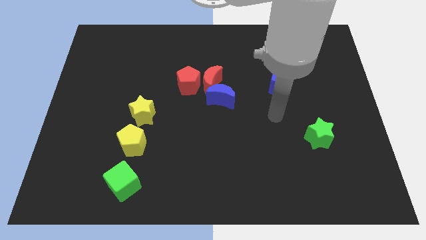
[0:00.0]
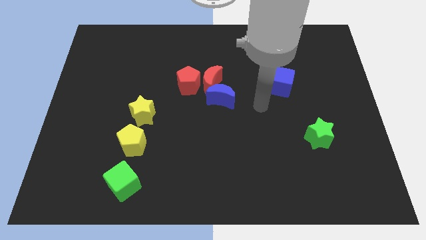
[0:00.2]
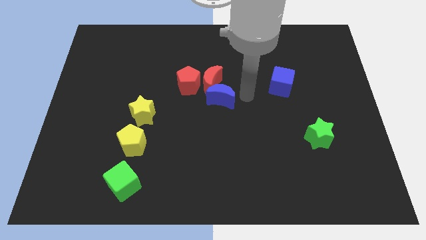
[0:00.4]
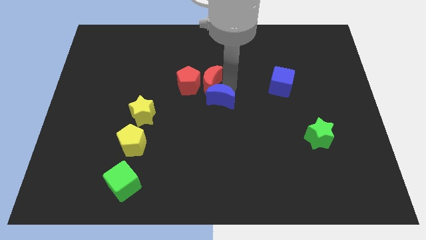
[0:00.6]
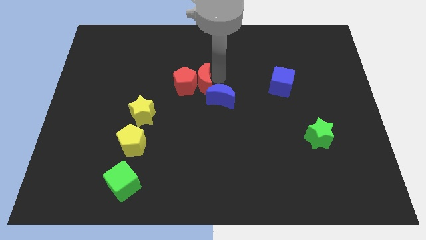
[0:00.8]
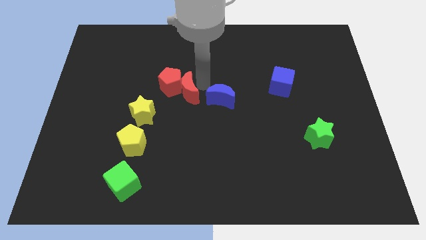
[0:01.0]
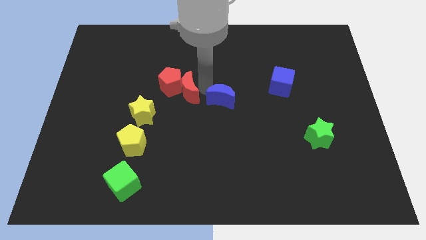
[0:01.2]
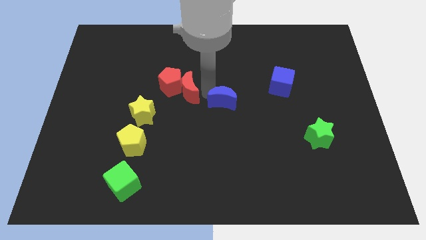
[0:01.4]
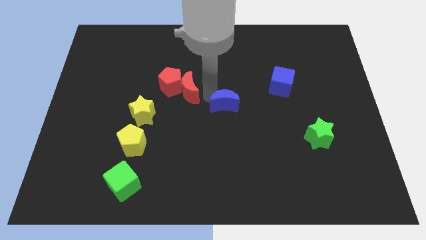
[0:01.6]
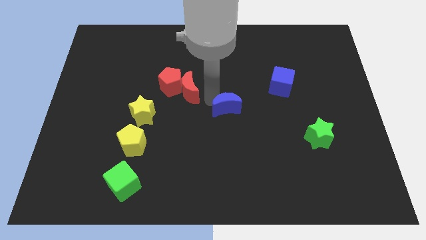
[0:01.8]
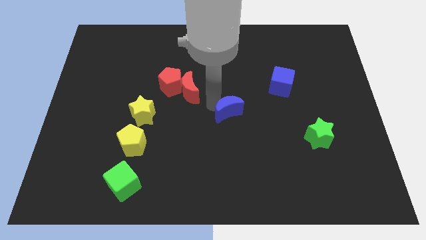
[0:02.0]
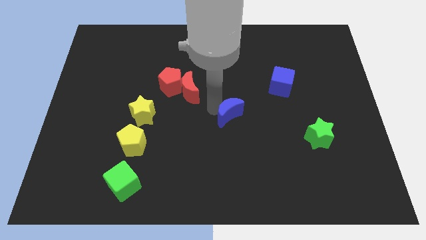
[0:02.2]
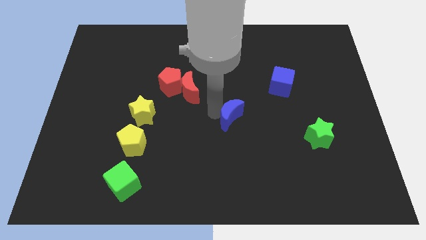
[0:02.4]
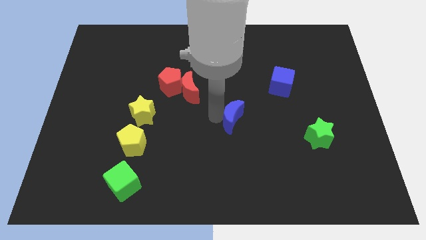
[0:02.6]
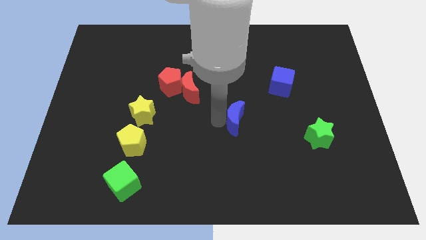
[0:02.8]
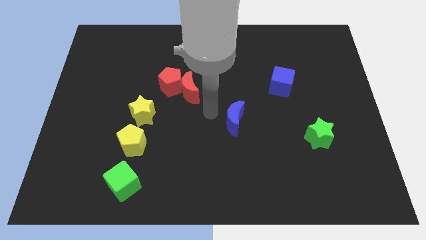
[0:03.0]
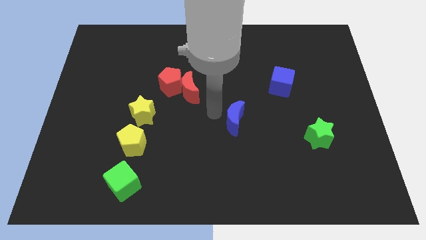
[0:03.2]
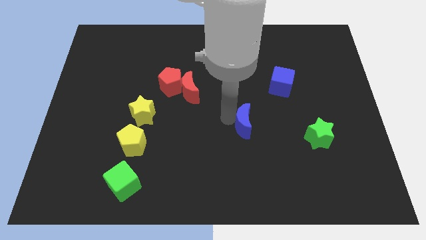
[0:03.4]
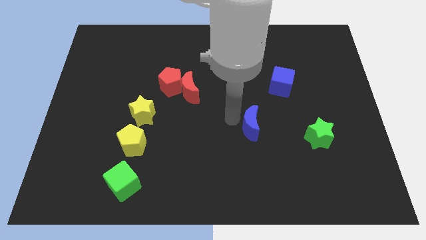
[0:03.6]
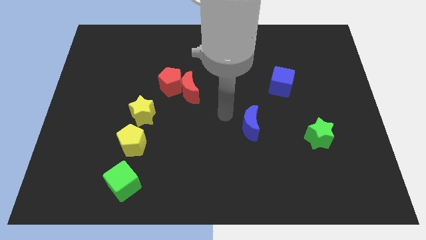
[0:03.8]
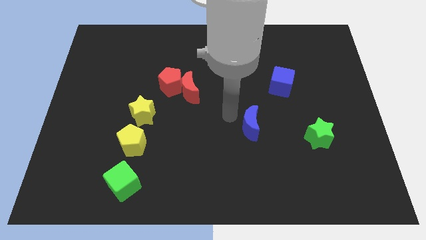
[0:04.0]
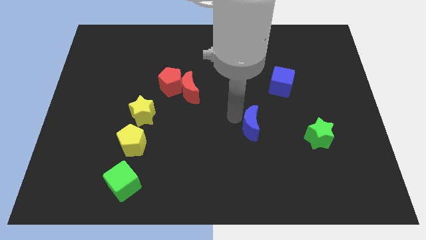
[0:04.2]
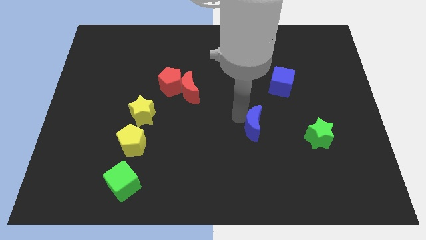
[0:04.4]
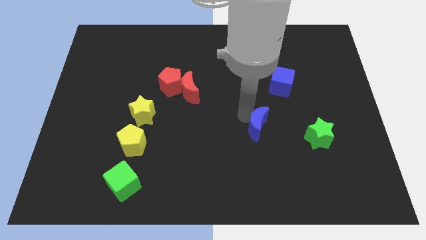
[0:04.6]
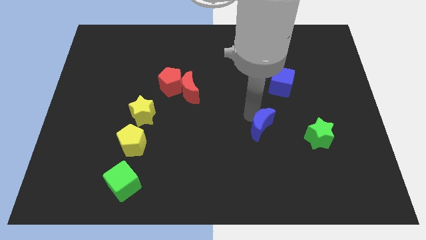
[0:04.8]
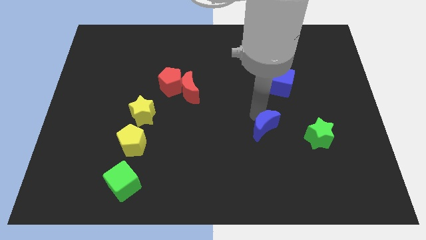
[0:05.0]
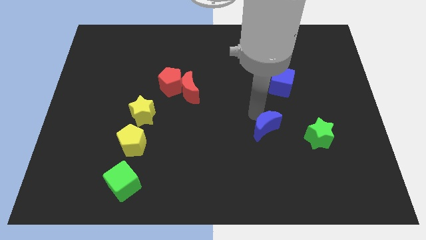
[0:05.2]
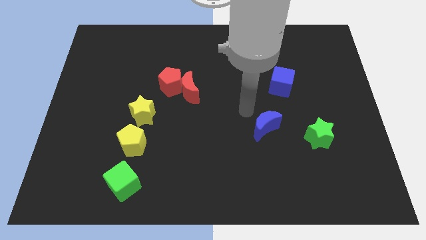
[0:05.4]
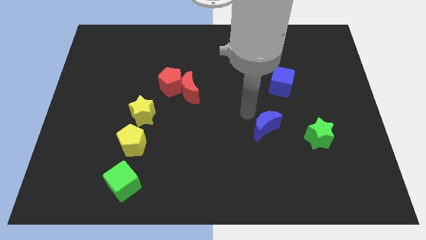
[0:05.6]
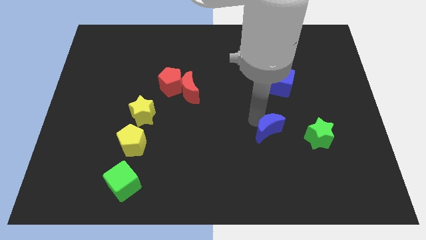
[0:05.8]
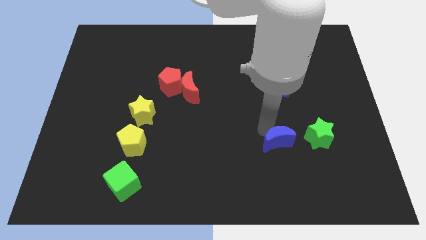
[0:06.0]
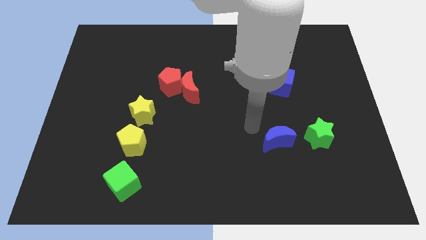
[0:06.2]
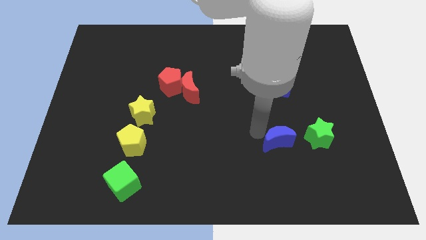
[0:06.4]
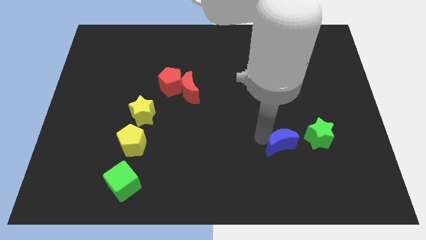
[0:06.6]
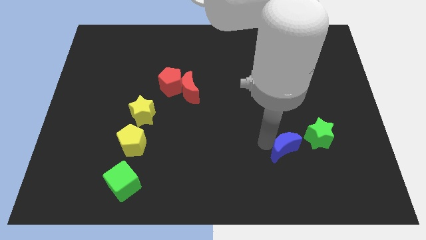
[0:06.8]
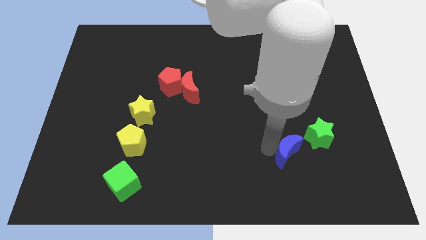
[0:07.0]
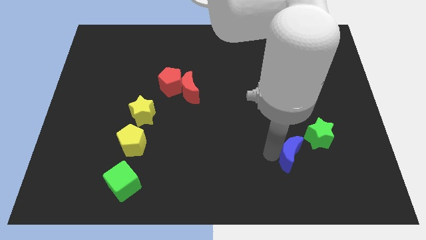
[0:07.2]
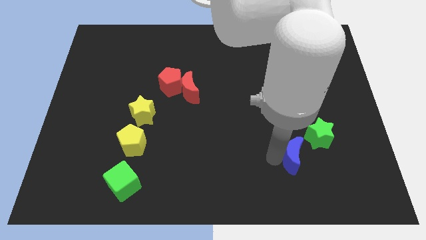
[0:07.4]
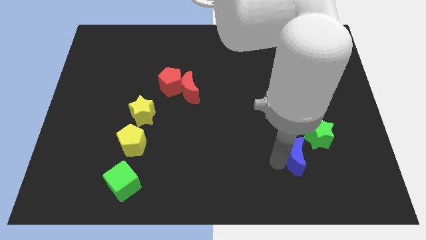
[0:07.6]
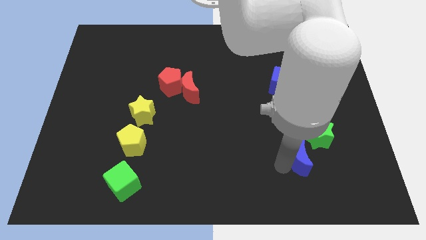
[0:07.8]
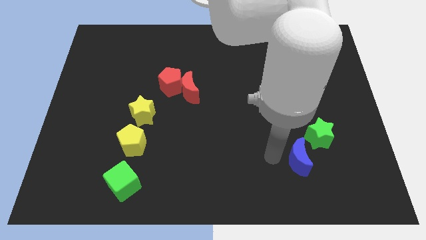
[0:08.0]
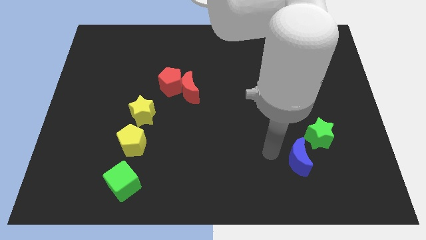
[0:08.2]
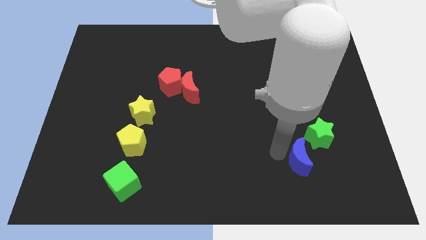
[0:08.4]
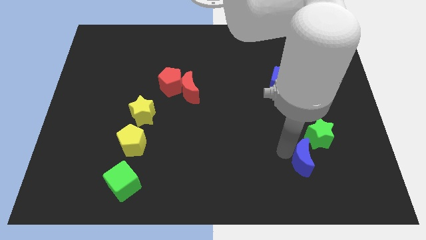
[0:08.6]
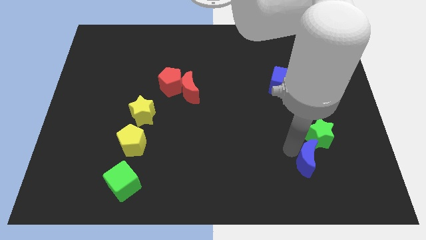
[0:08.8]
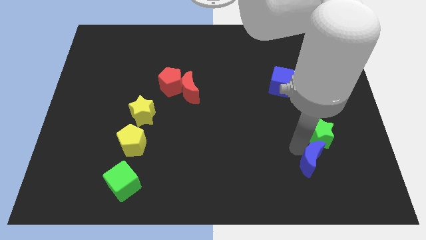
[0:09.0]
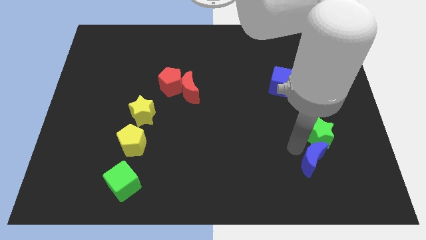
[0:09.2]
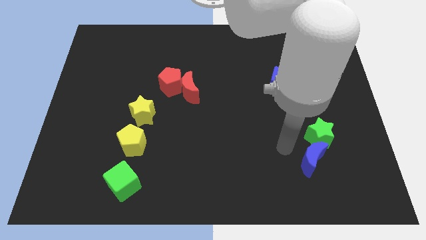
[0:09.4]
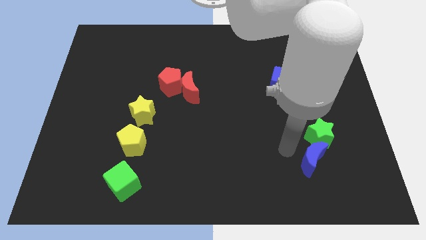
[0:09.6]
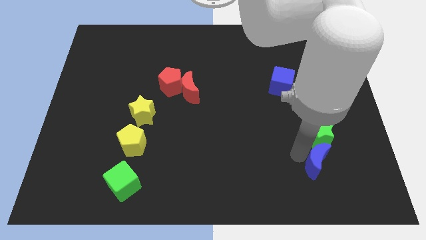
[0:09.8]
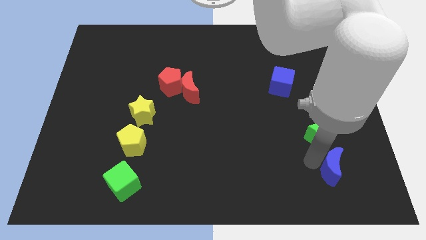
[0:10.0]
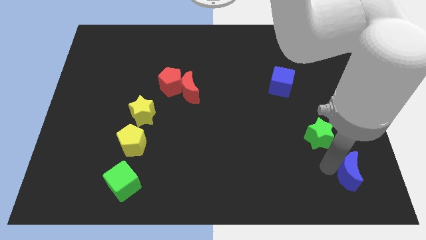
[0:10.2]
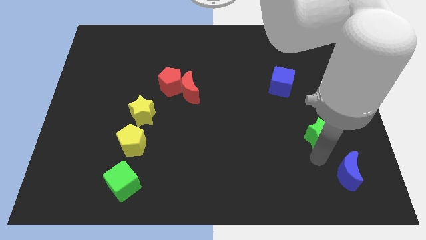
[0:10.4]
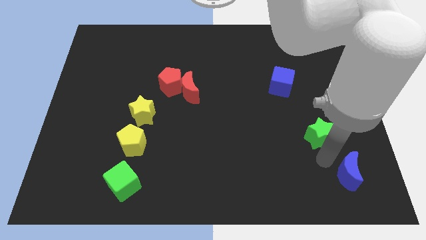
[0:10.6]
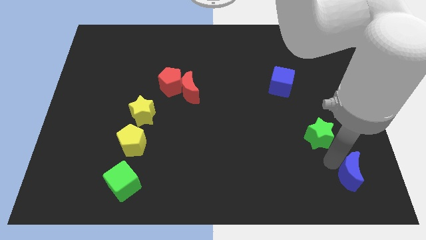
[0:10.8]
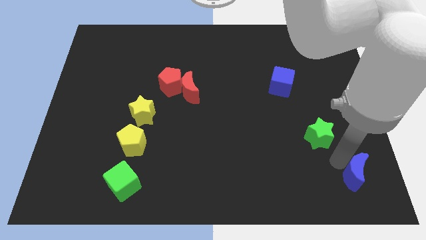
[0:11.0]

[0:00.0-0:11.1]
move the blue moon to the bottom right corner
